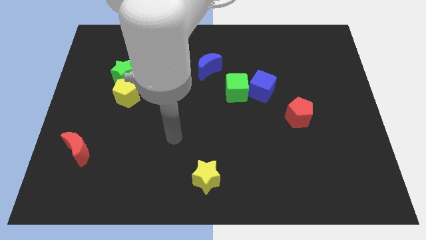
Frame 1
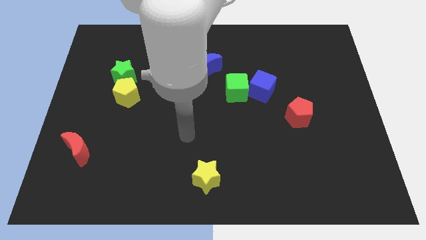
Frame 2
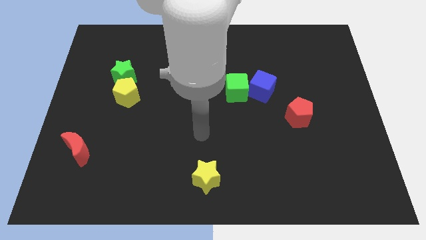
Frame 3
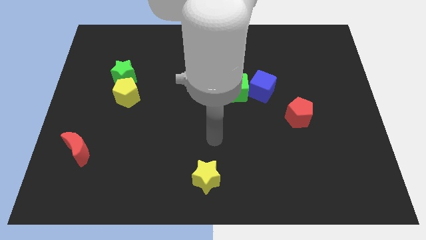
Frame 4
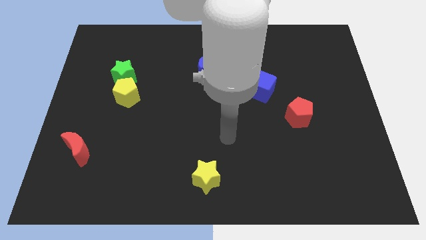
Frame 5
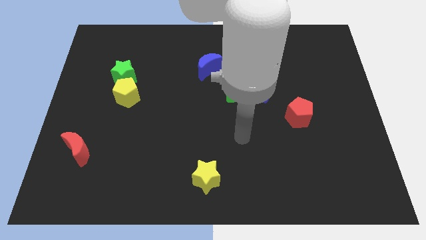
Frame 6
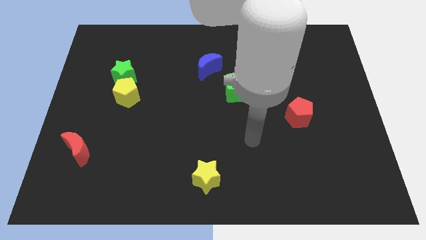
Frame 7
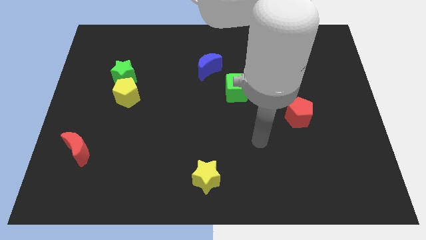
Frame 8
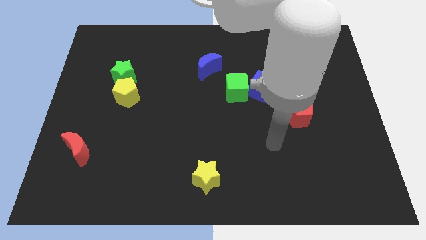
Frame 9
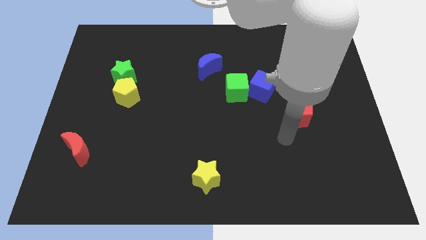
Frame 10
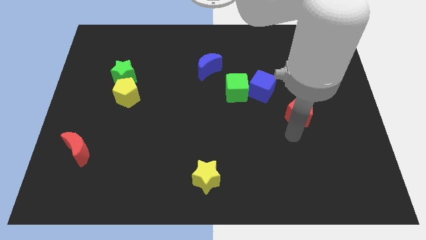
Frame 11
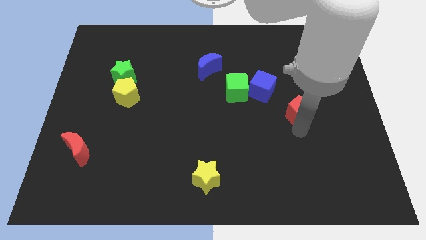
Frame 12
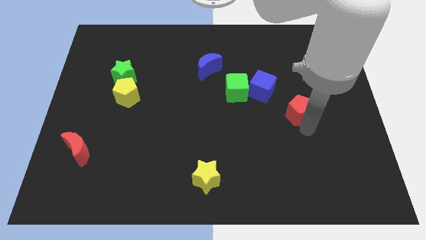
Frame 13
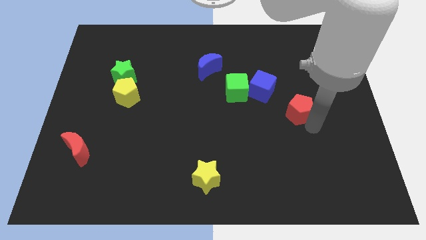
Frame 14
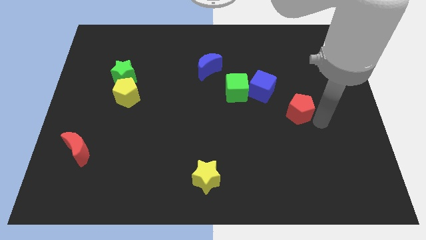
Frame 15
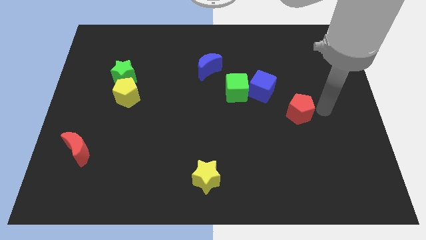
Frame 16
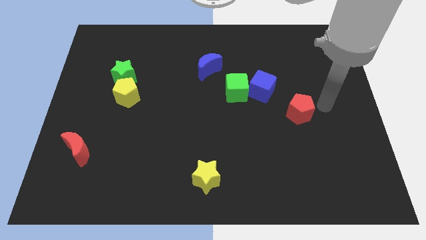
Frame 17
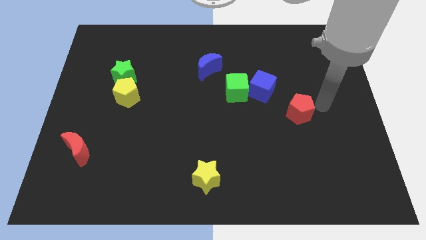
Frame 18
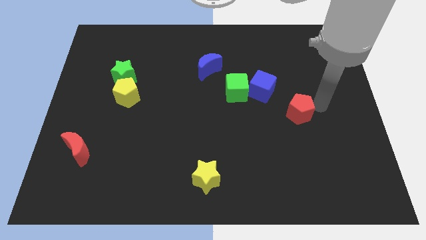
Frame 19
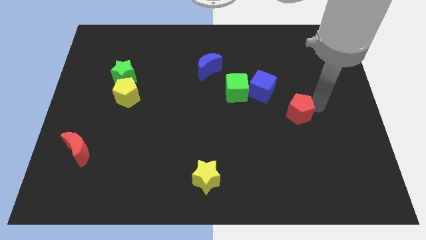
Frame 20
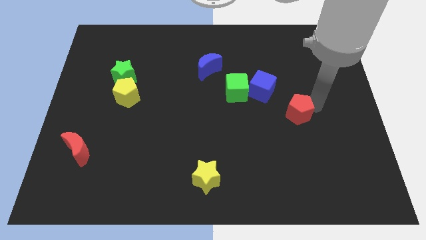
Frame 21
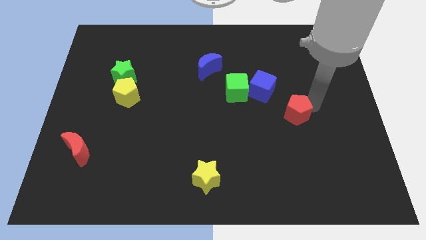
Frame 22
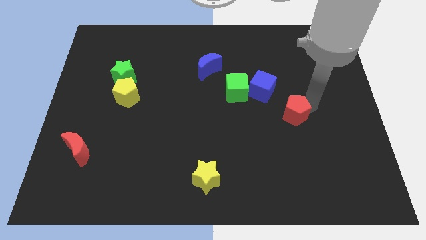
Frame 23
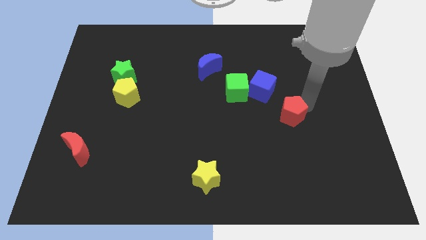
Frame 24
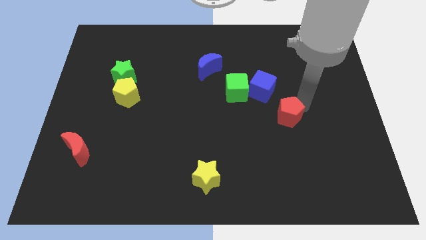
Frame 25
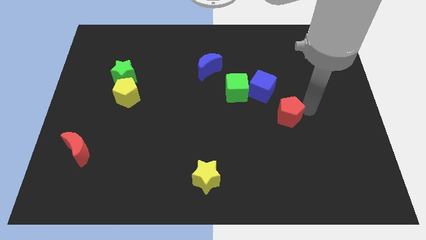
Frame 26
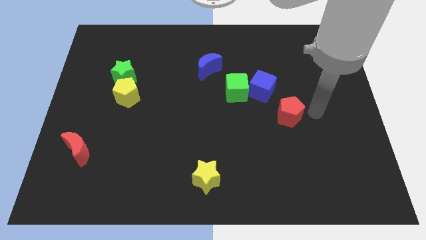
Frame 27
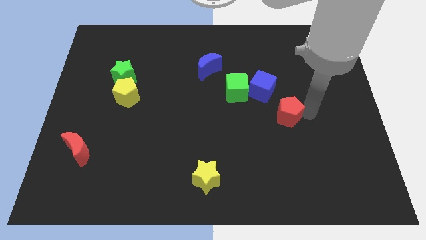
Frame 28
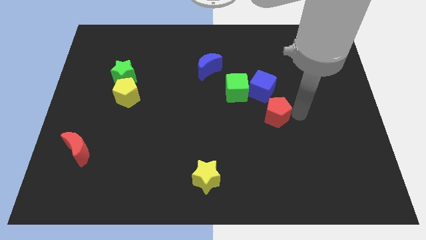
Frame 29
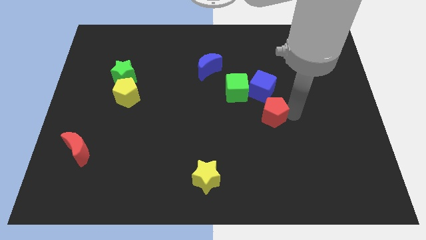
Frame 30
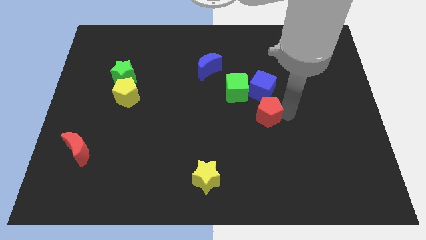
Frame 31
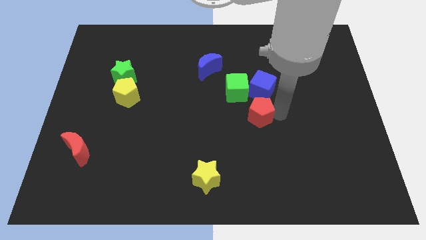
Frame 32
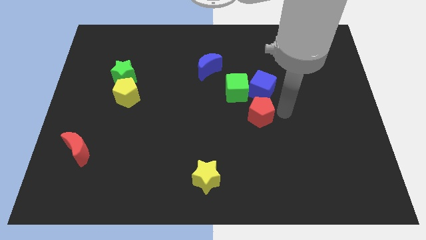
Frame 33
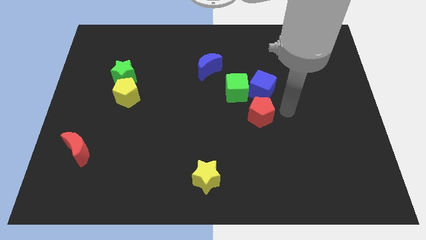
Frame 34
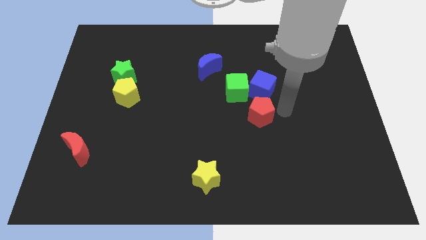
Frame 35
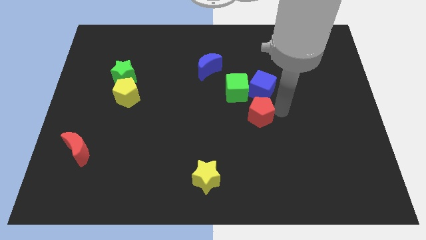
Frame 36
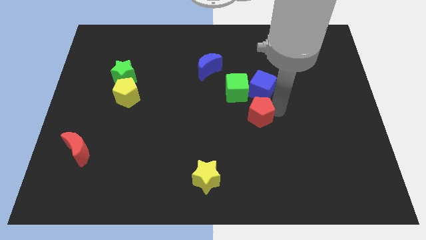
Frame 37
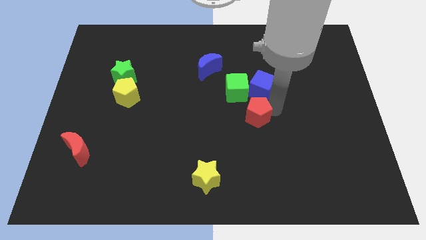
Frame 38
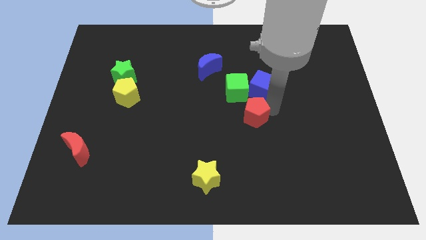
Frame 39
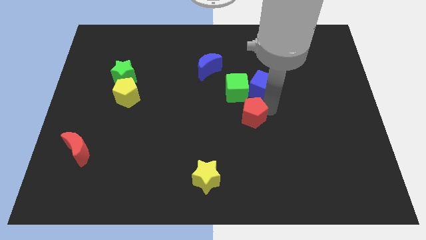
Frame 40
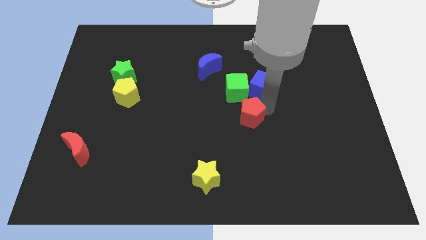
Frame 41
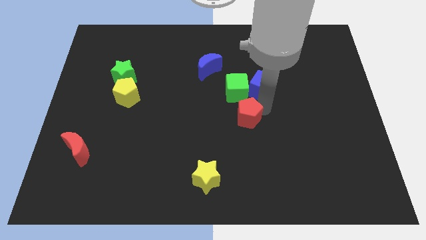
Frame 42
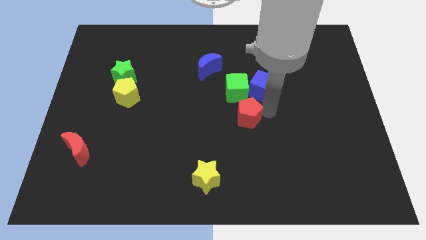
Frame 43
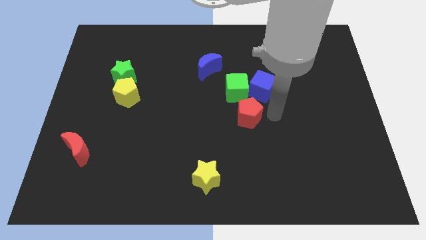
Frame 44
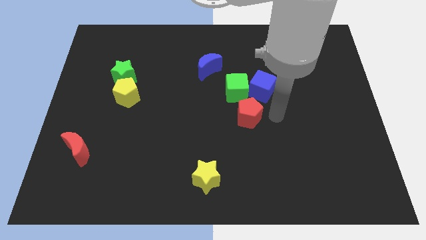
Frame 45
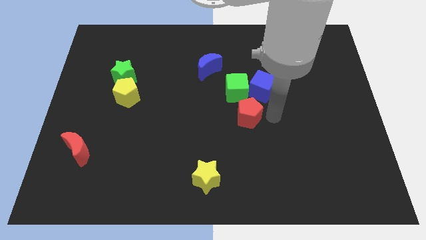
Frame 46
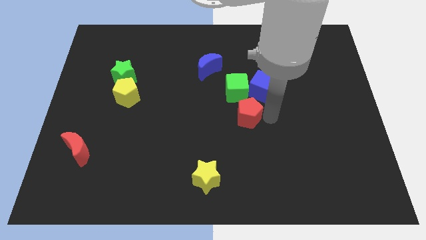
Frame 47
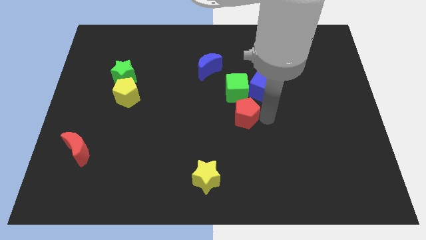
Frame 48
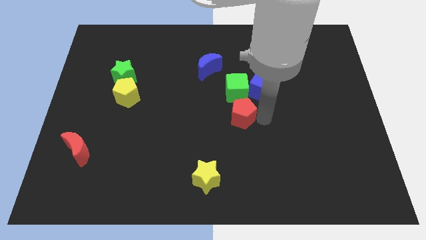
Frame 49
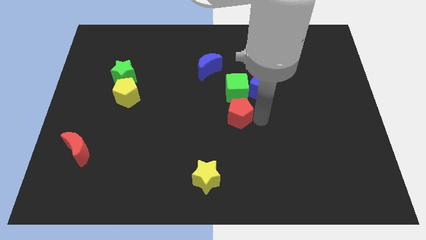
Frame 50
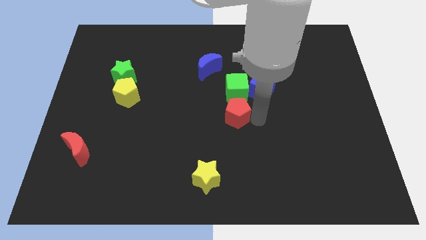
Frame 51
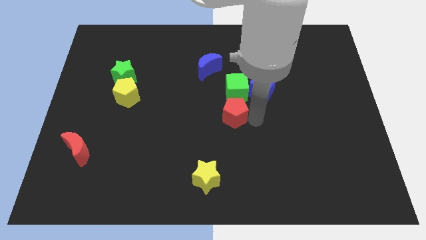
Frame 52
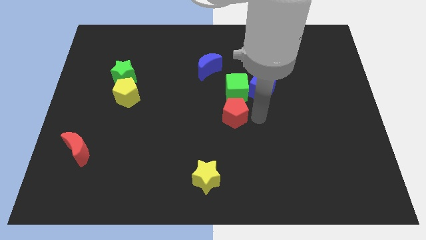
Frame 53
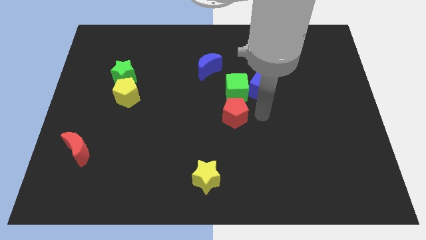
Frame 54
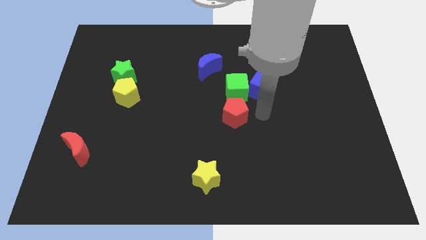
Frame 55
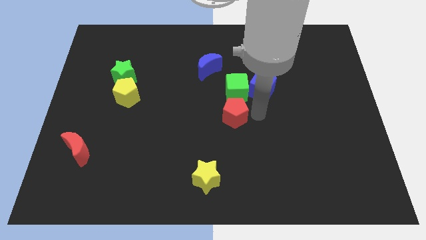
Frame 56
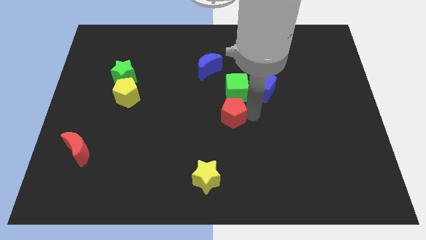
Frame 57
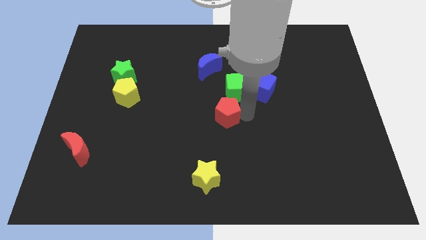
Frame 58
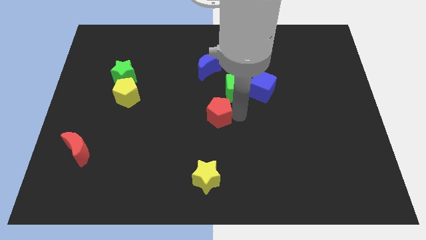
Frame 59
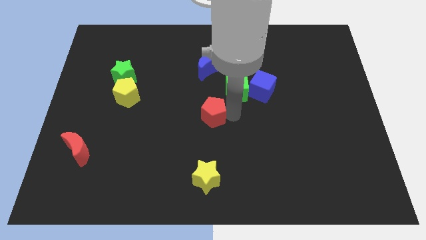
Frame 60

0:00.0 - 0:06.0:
slide the red pentagon left

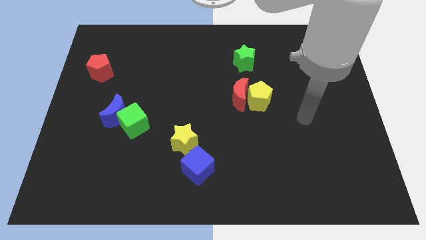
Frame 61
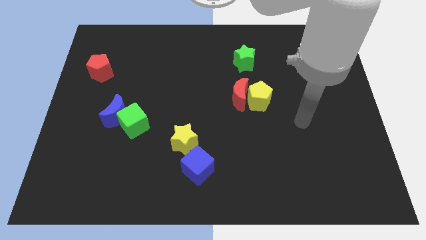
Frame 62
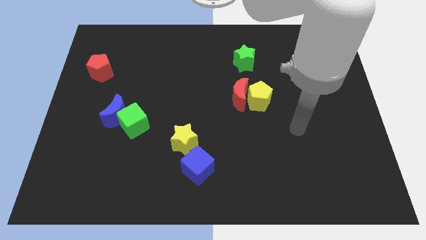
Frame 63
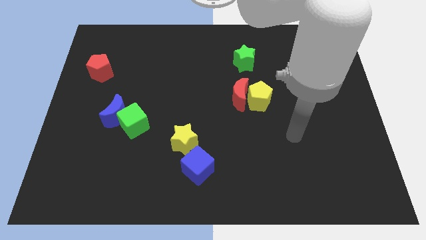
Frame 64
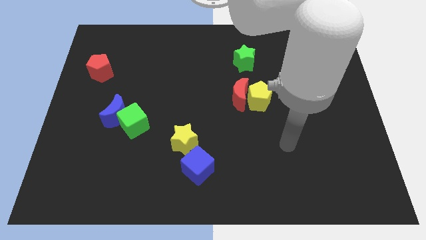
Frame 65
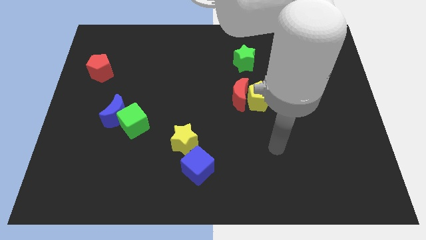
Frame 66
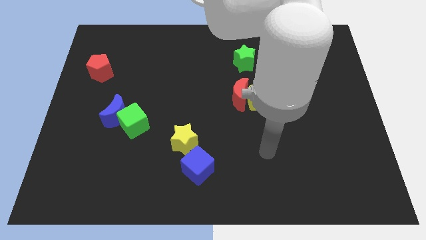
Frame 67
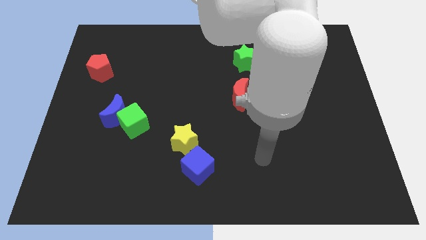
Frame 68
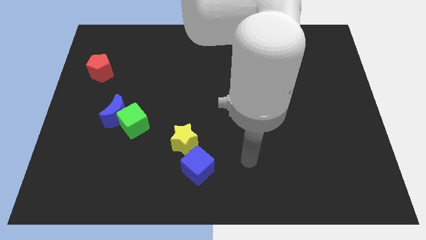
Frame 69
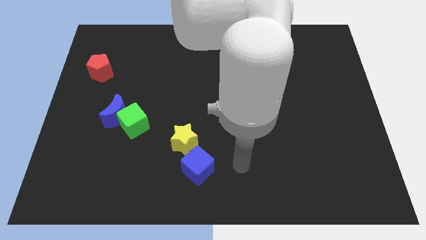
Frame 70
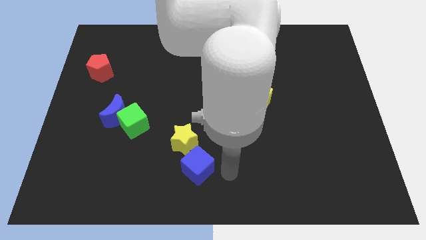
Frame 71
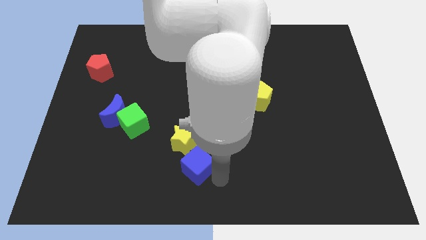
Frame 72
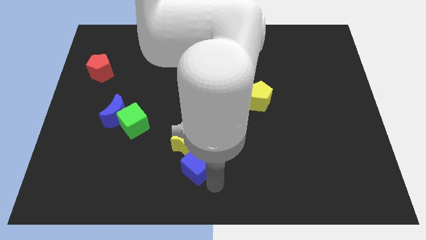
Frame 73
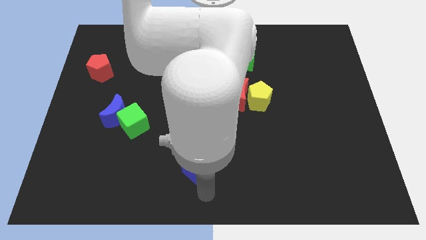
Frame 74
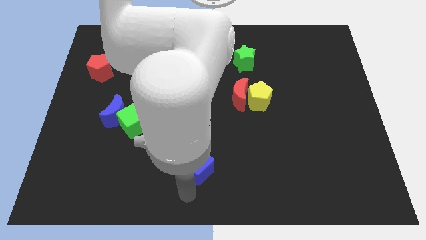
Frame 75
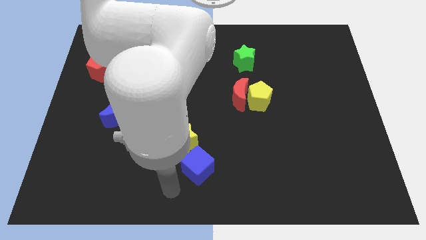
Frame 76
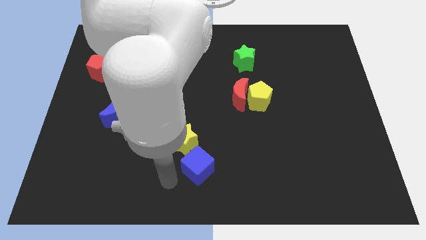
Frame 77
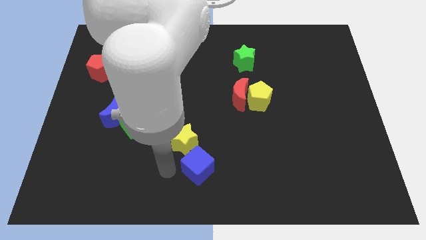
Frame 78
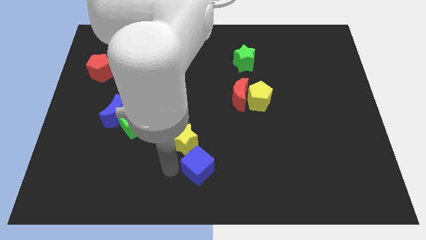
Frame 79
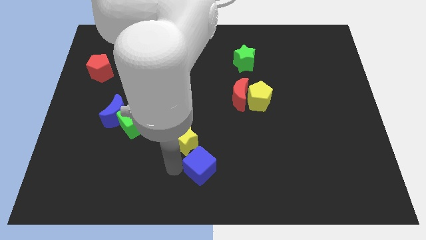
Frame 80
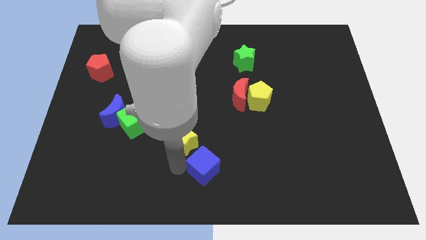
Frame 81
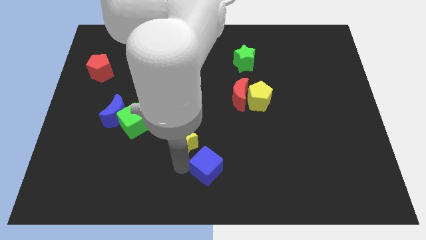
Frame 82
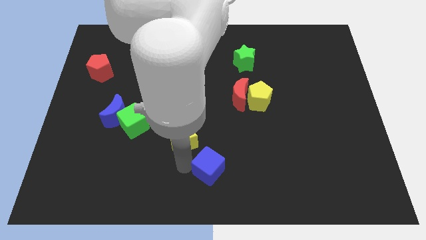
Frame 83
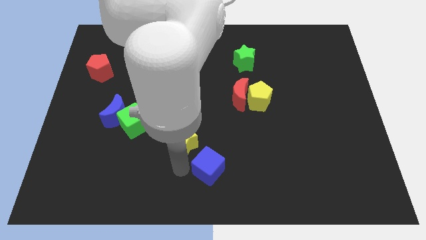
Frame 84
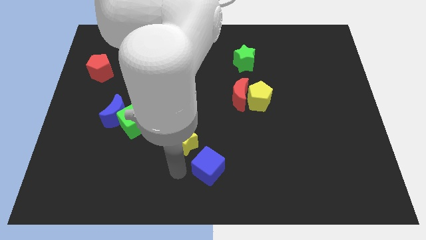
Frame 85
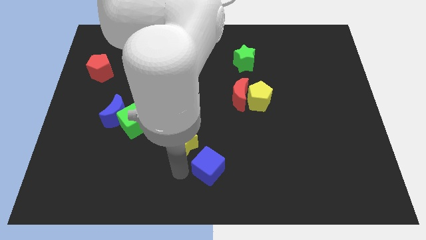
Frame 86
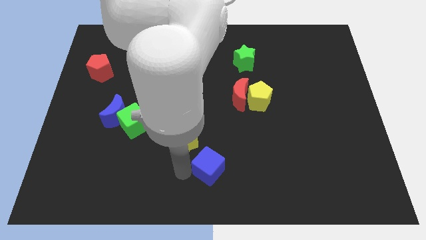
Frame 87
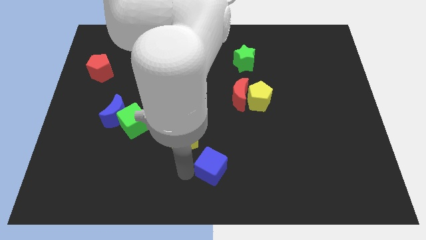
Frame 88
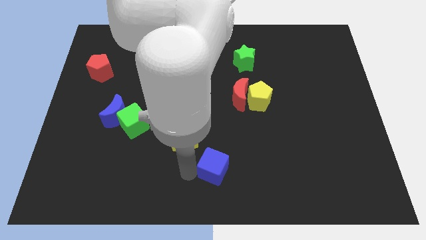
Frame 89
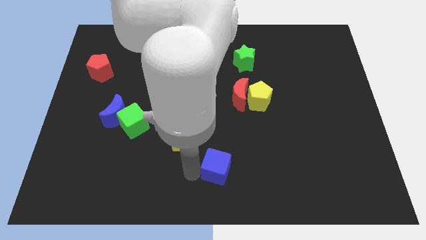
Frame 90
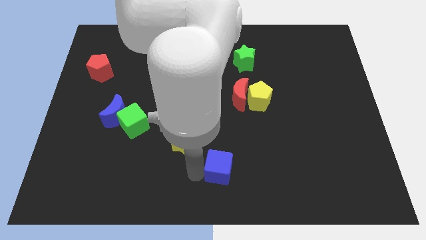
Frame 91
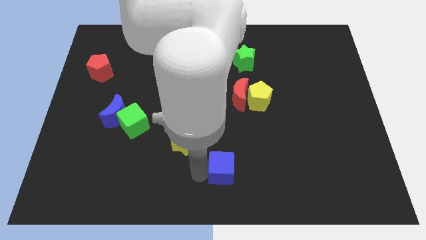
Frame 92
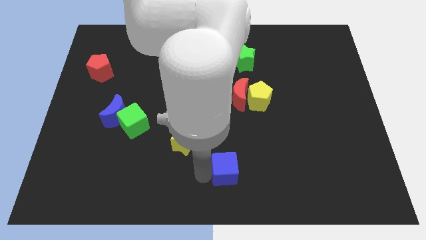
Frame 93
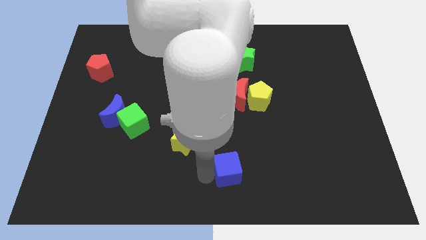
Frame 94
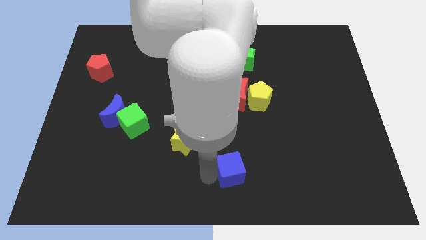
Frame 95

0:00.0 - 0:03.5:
push the blue cube a little right
